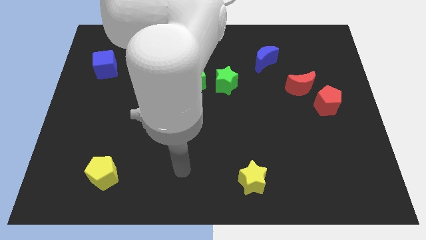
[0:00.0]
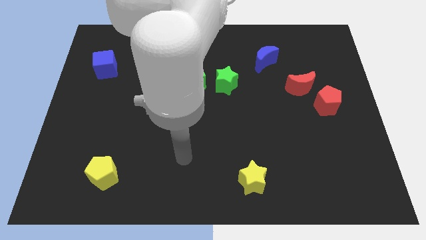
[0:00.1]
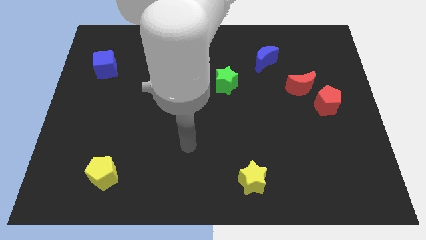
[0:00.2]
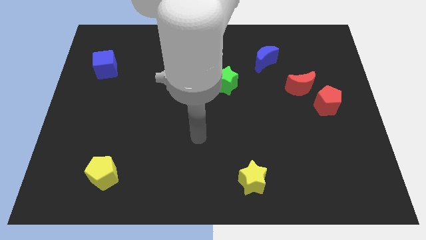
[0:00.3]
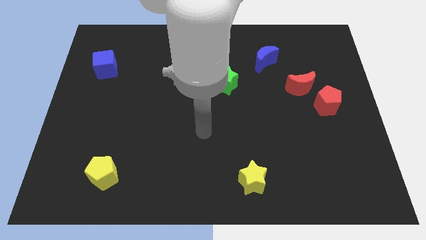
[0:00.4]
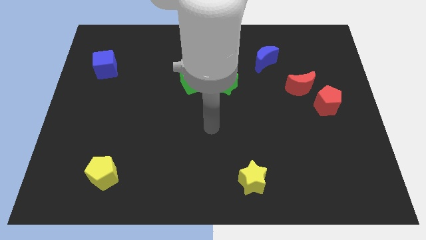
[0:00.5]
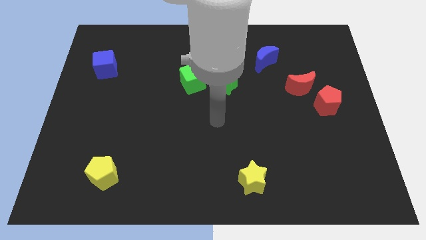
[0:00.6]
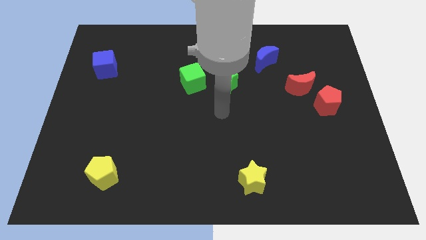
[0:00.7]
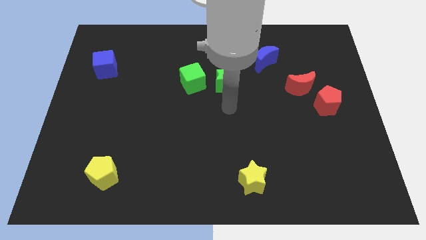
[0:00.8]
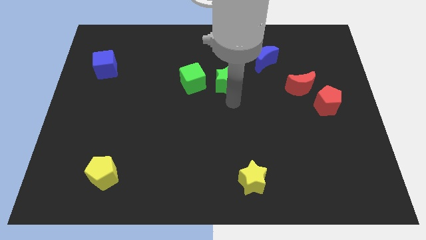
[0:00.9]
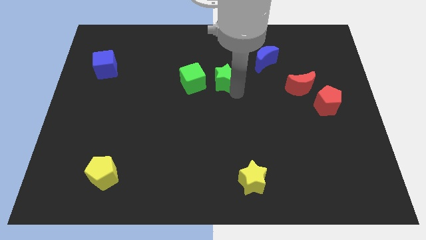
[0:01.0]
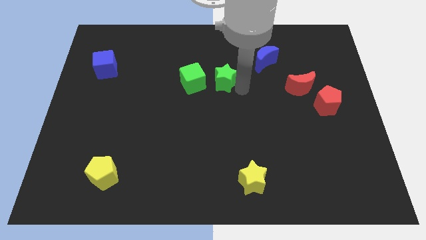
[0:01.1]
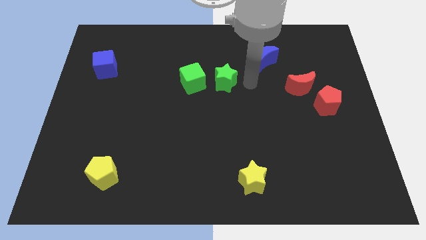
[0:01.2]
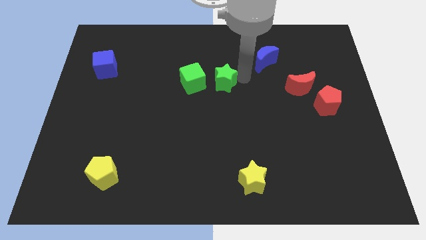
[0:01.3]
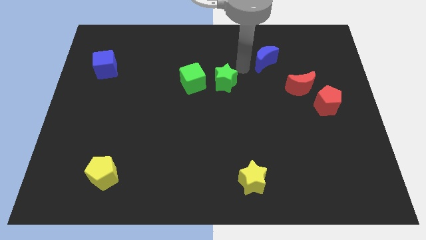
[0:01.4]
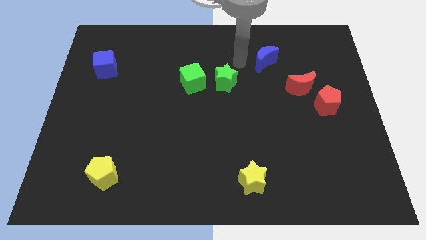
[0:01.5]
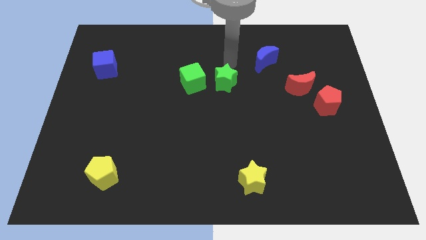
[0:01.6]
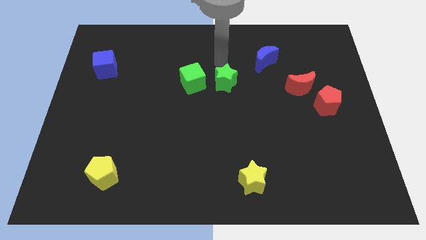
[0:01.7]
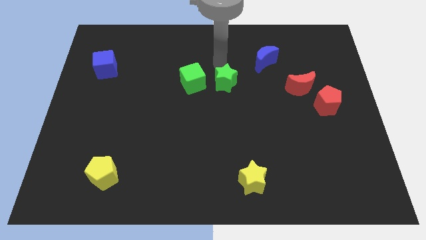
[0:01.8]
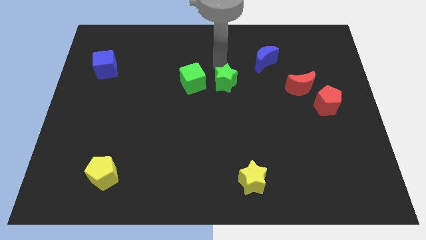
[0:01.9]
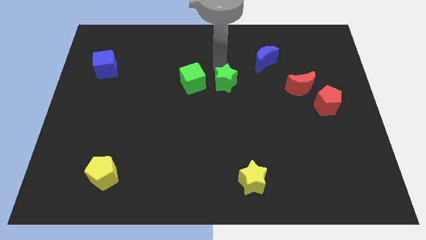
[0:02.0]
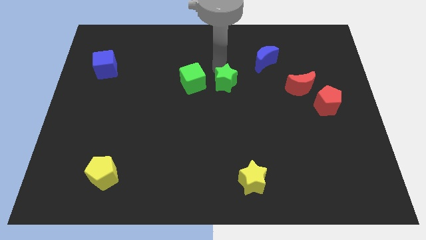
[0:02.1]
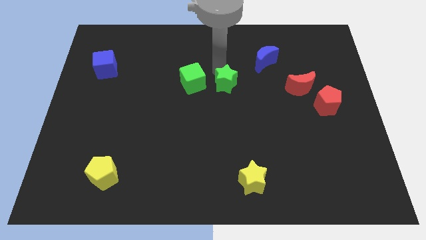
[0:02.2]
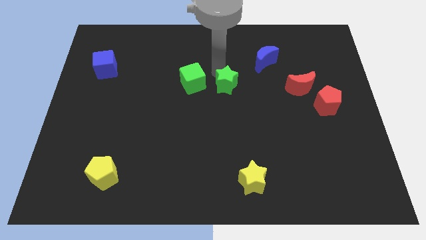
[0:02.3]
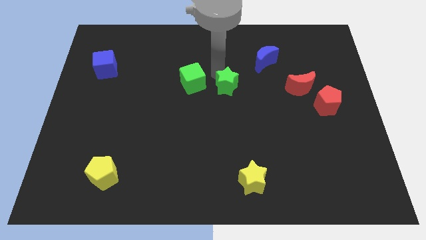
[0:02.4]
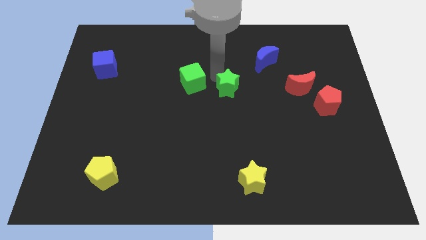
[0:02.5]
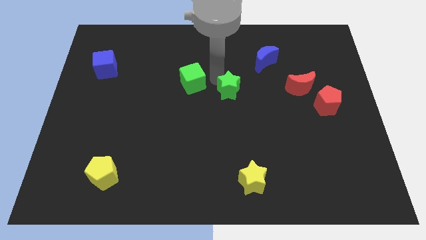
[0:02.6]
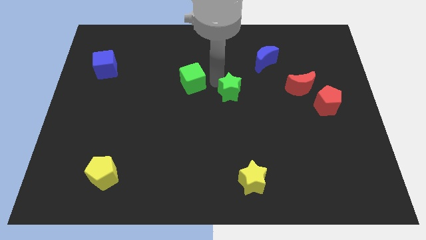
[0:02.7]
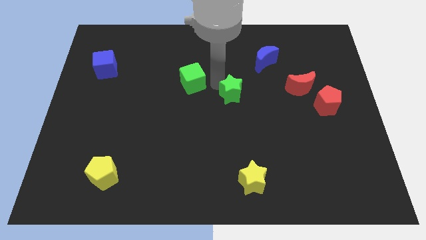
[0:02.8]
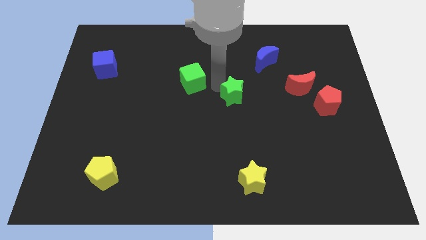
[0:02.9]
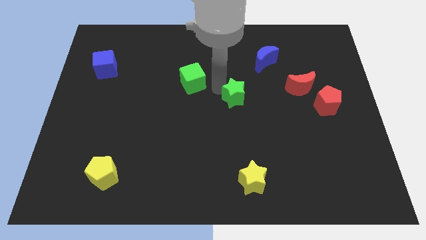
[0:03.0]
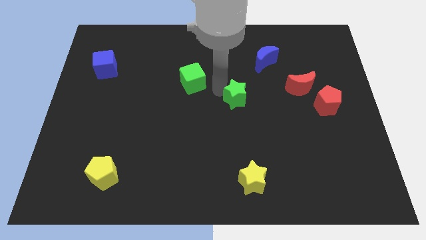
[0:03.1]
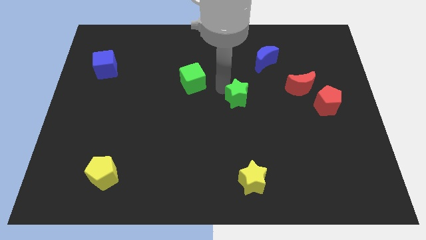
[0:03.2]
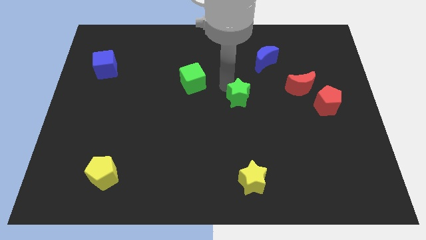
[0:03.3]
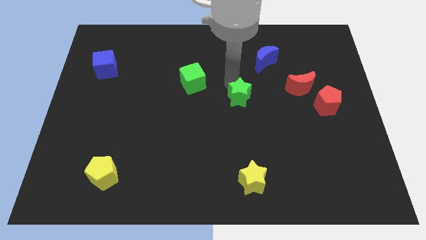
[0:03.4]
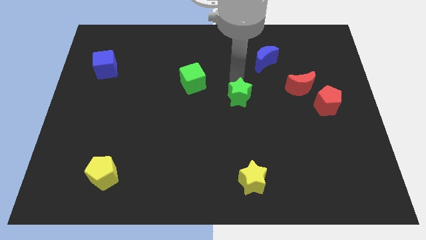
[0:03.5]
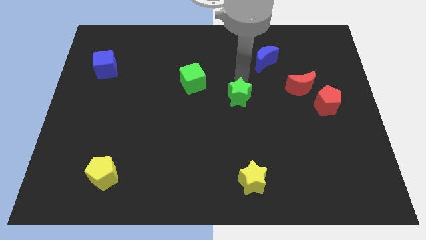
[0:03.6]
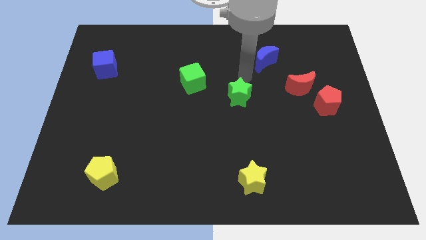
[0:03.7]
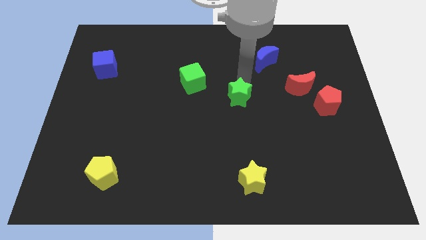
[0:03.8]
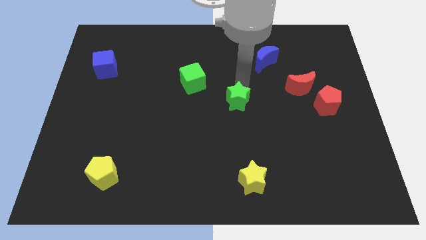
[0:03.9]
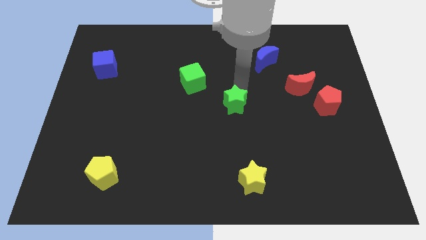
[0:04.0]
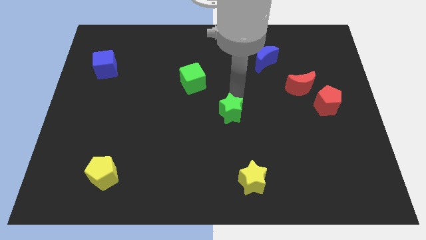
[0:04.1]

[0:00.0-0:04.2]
push the green star slightly downwards

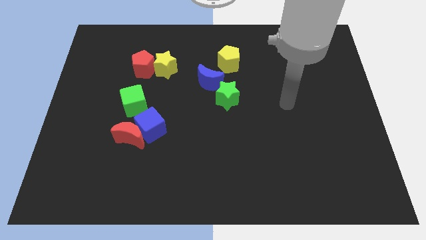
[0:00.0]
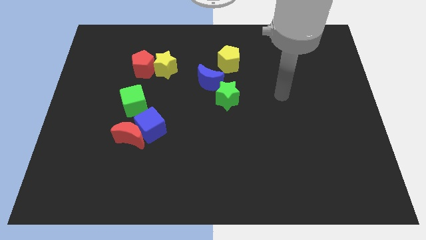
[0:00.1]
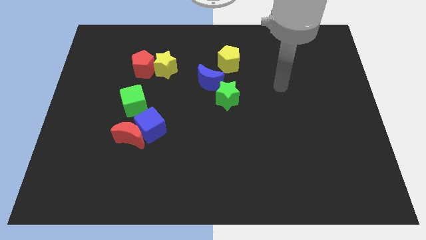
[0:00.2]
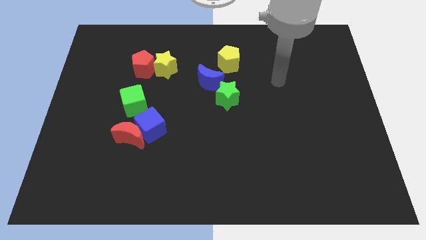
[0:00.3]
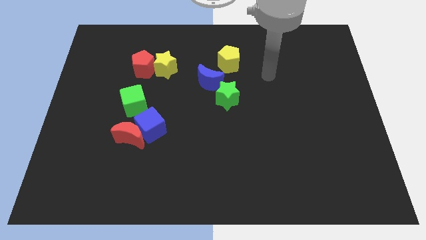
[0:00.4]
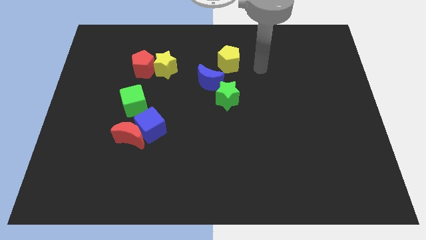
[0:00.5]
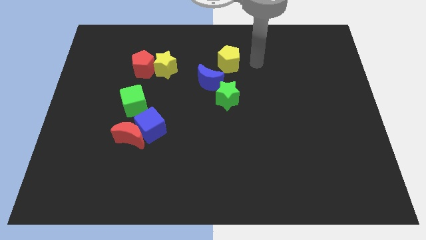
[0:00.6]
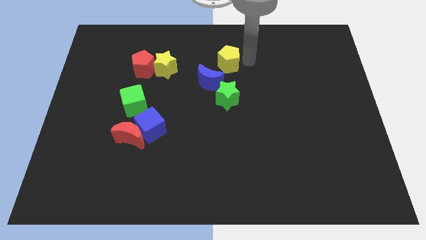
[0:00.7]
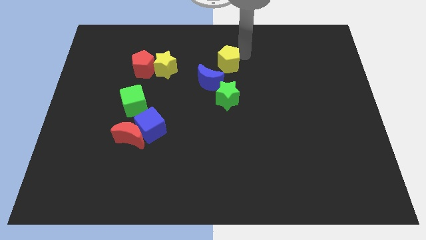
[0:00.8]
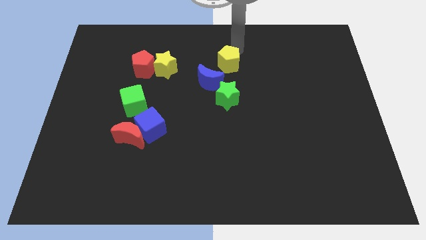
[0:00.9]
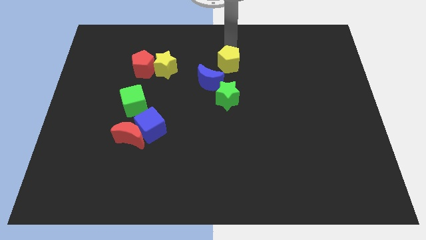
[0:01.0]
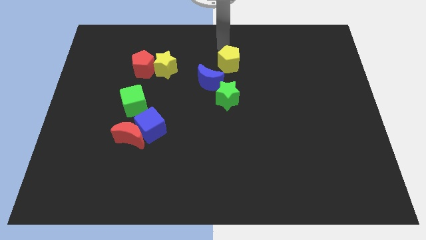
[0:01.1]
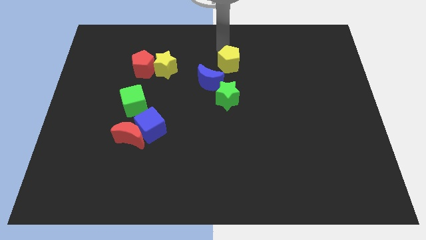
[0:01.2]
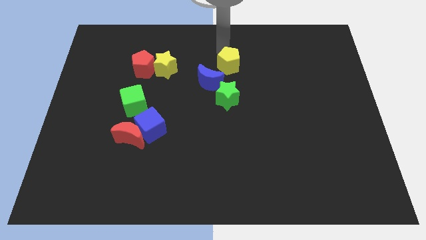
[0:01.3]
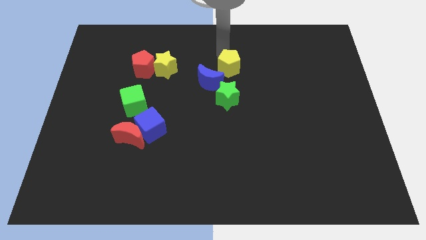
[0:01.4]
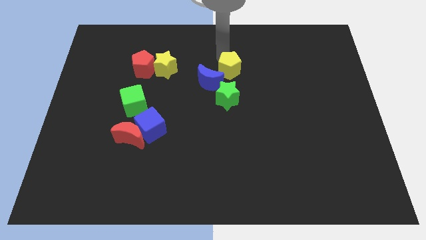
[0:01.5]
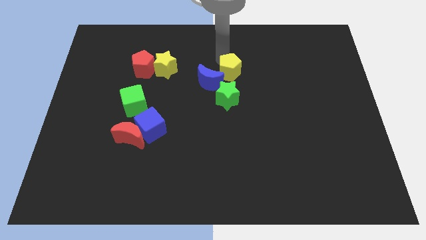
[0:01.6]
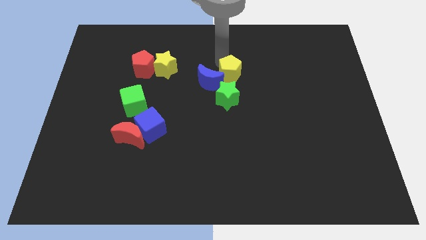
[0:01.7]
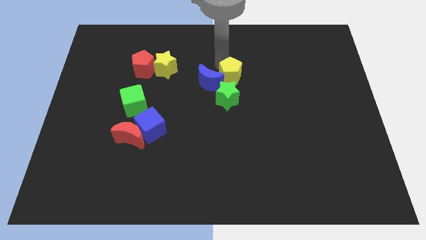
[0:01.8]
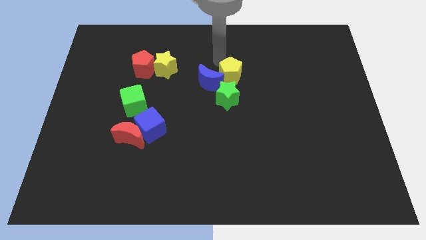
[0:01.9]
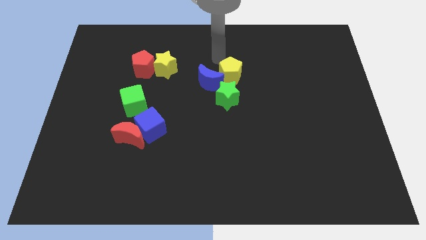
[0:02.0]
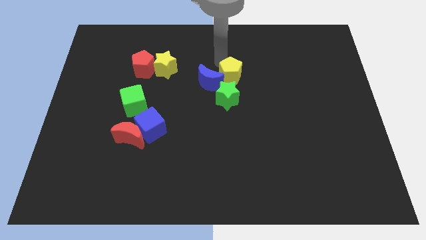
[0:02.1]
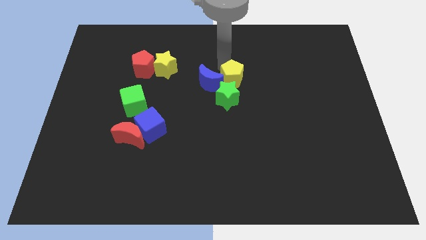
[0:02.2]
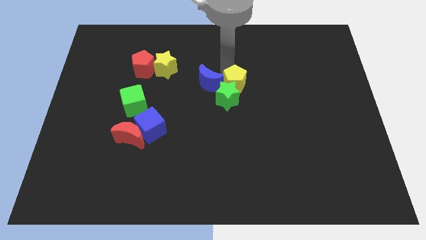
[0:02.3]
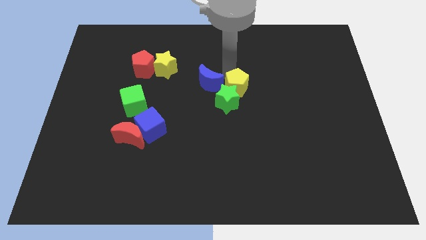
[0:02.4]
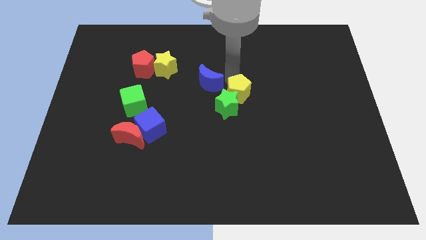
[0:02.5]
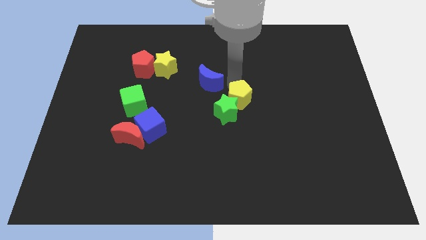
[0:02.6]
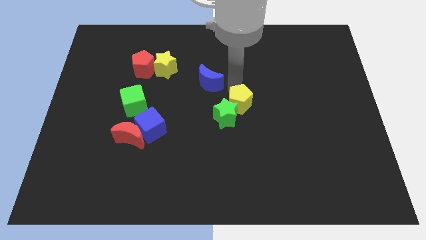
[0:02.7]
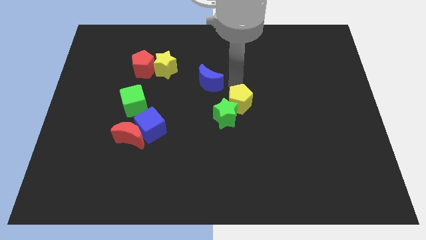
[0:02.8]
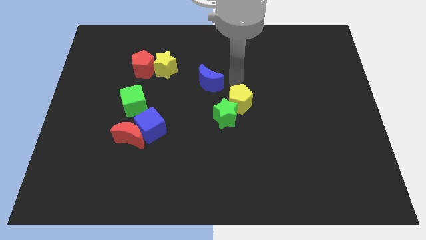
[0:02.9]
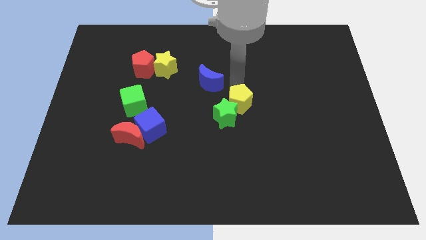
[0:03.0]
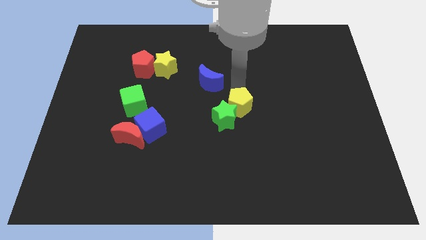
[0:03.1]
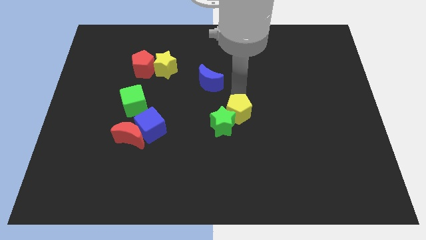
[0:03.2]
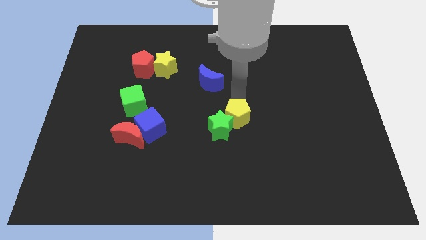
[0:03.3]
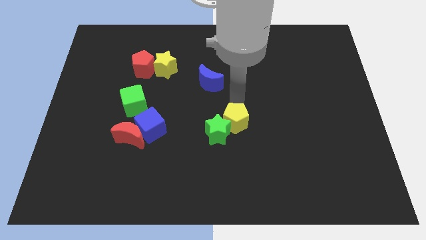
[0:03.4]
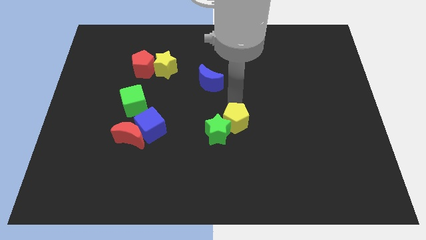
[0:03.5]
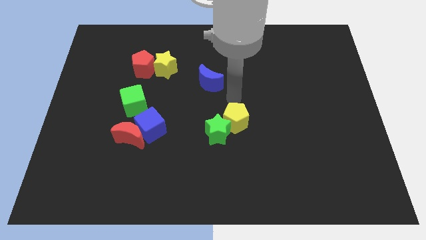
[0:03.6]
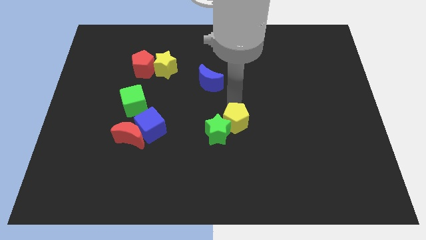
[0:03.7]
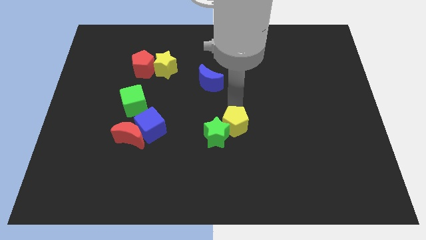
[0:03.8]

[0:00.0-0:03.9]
slide the yellow pentagon down
